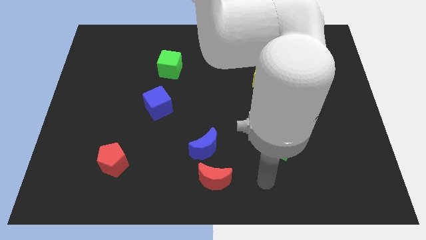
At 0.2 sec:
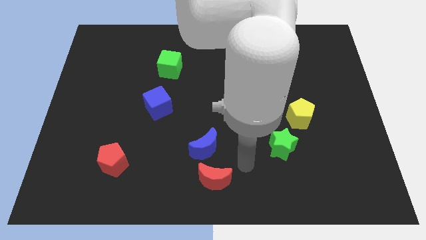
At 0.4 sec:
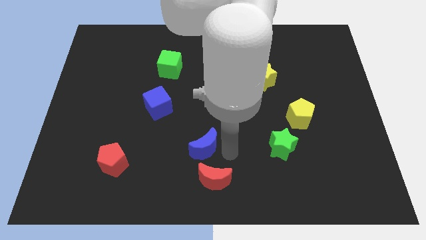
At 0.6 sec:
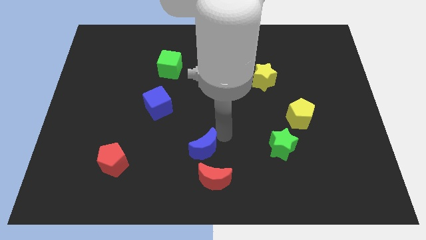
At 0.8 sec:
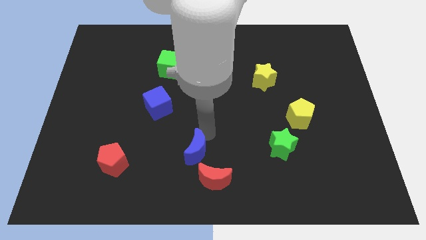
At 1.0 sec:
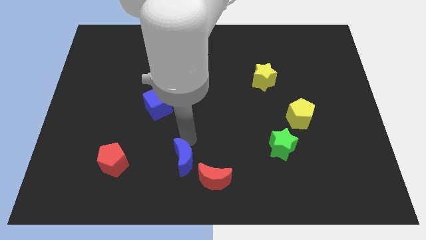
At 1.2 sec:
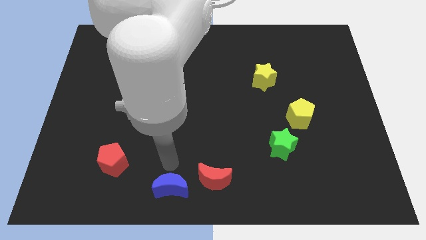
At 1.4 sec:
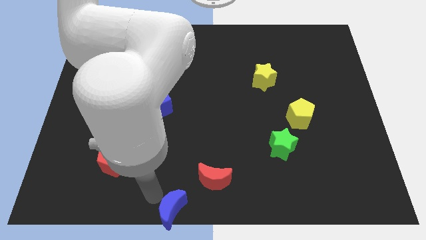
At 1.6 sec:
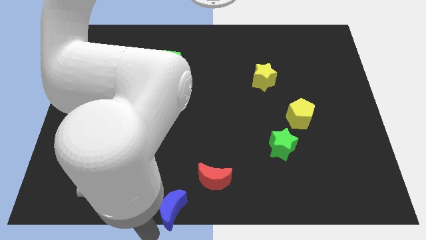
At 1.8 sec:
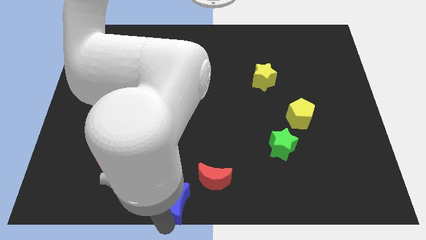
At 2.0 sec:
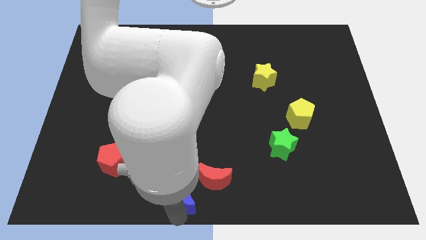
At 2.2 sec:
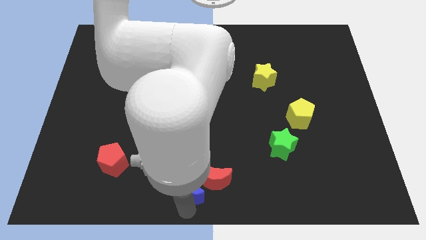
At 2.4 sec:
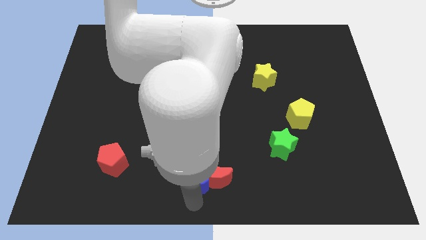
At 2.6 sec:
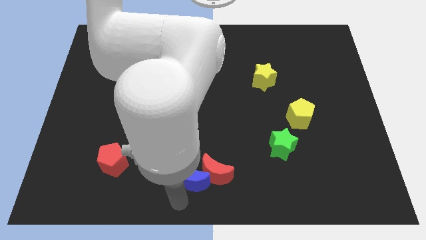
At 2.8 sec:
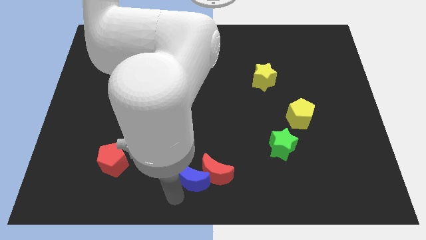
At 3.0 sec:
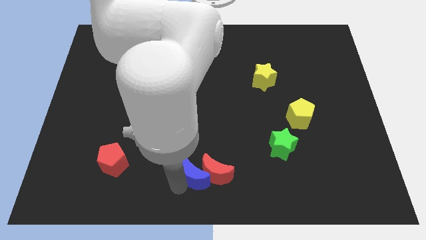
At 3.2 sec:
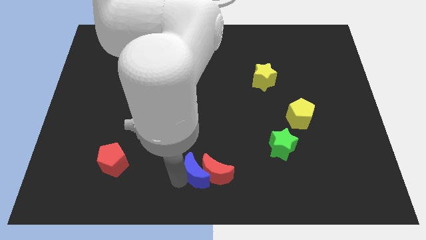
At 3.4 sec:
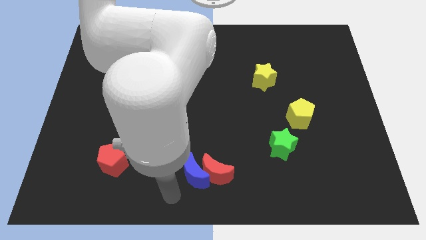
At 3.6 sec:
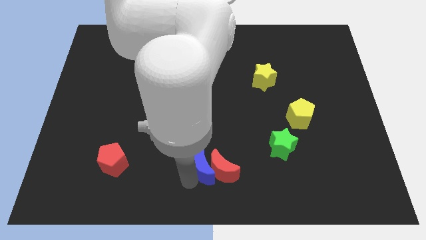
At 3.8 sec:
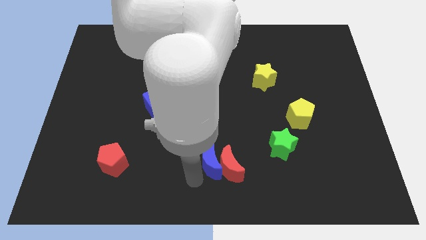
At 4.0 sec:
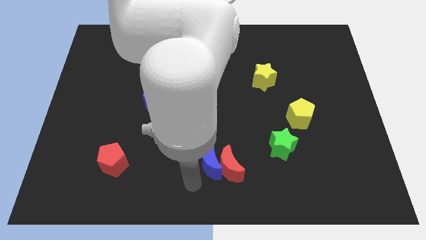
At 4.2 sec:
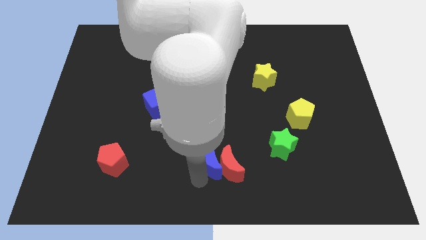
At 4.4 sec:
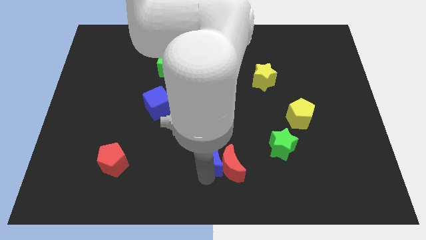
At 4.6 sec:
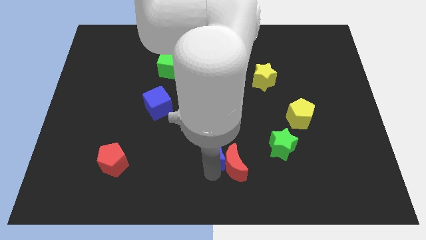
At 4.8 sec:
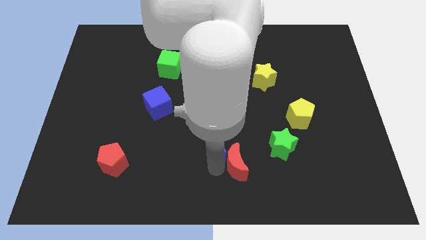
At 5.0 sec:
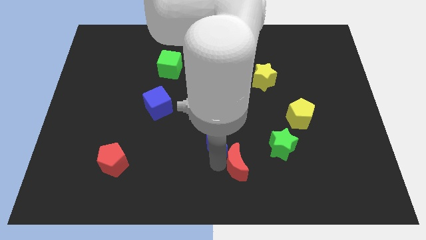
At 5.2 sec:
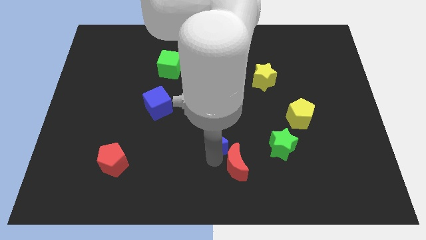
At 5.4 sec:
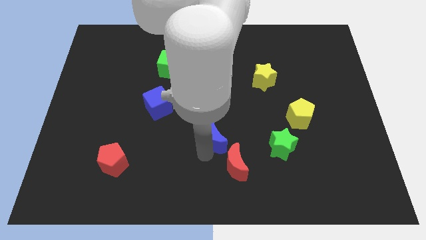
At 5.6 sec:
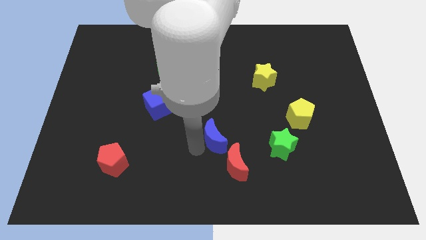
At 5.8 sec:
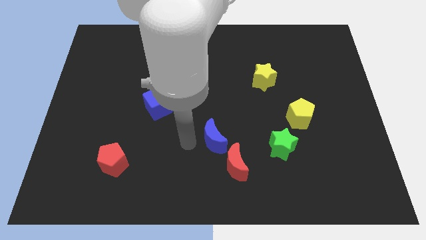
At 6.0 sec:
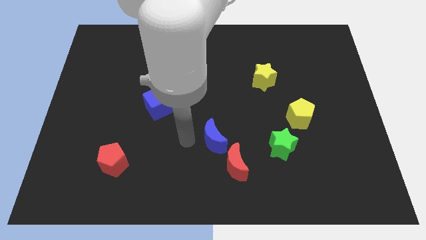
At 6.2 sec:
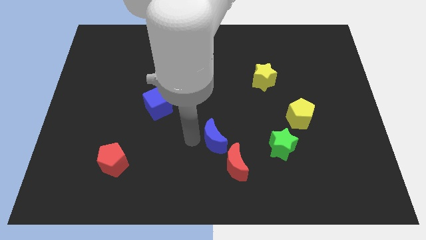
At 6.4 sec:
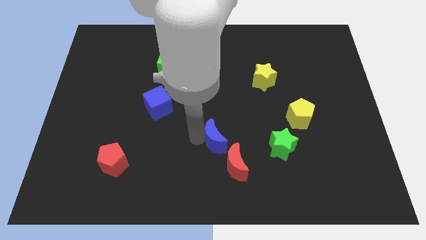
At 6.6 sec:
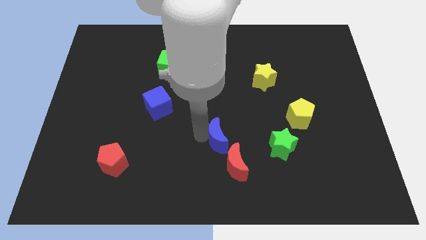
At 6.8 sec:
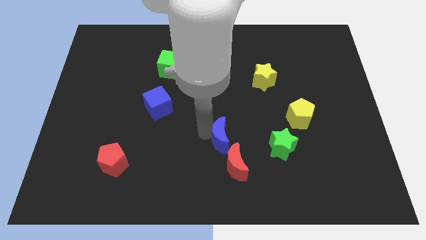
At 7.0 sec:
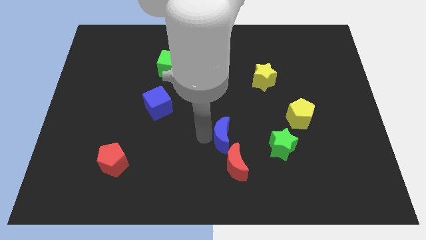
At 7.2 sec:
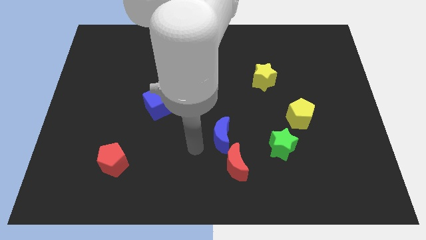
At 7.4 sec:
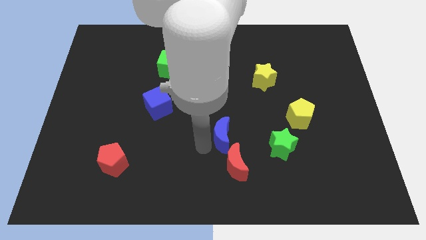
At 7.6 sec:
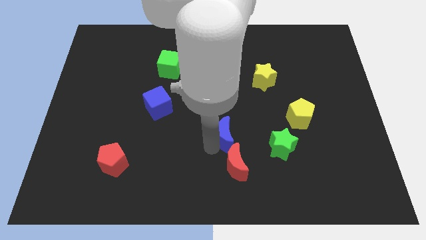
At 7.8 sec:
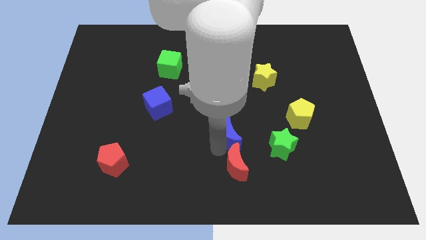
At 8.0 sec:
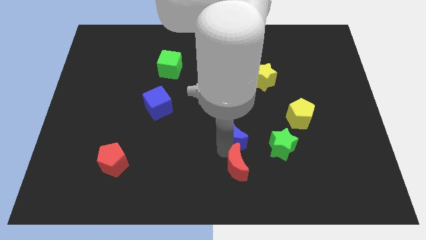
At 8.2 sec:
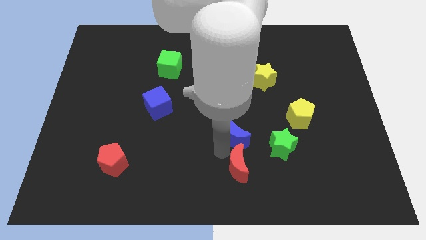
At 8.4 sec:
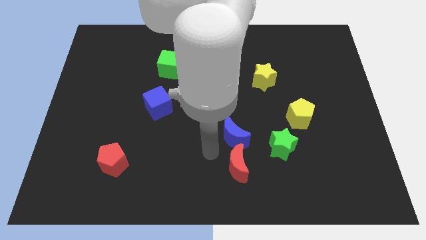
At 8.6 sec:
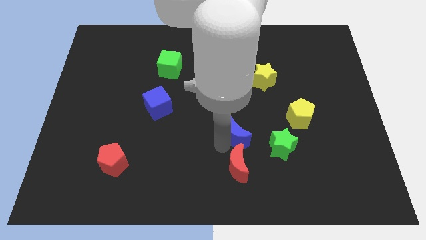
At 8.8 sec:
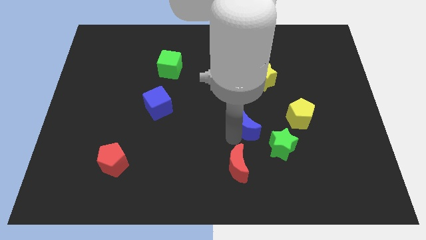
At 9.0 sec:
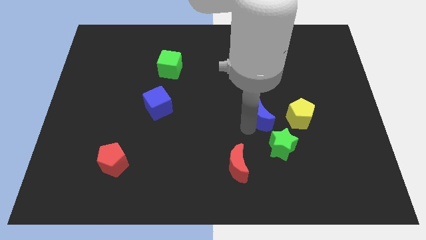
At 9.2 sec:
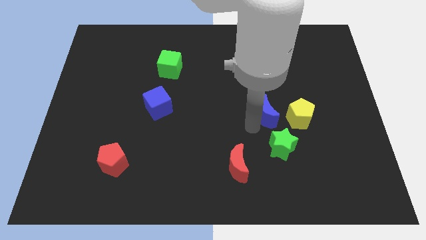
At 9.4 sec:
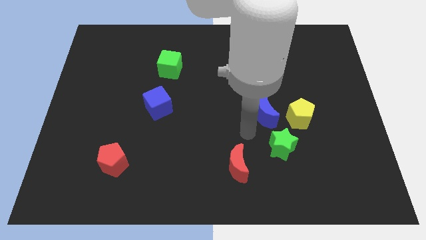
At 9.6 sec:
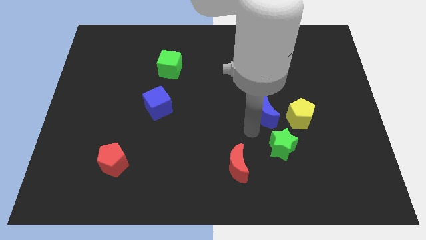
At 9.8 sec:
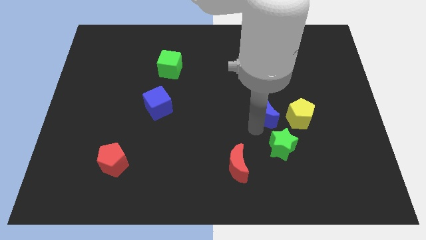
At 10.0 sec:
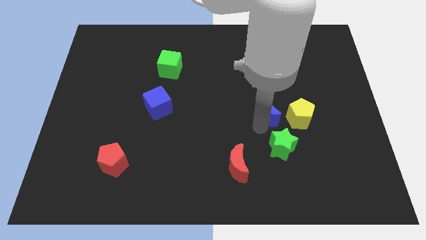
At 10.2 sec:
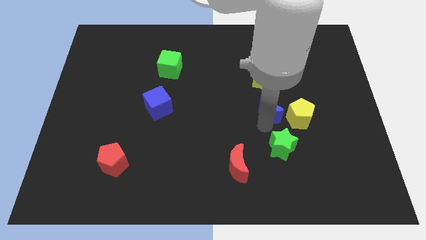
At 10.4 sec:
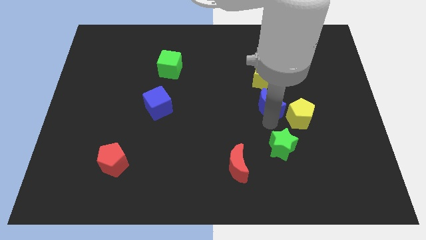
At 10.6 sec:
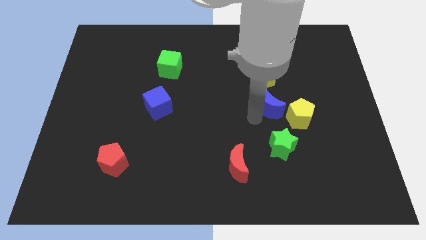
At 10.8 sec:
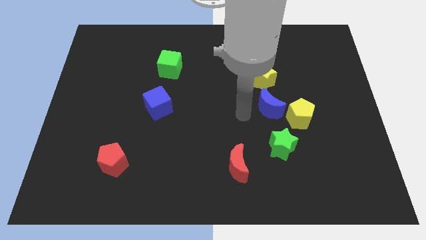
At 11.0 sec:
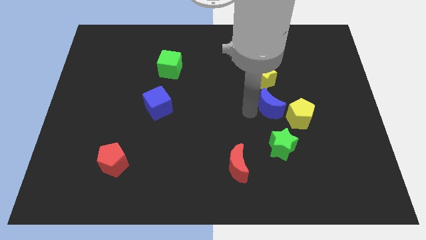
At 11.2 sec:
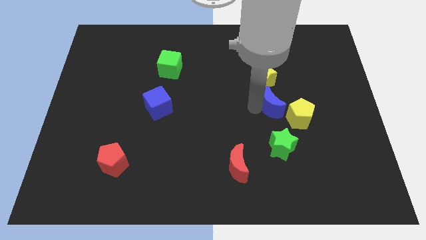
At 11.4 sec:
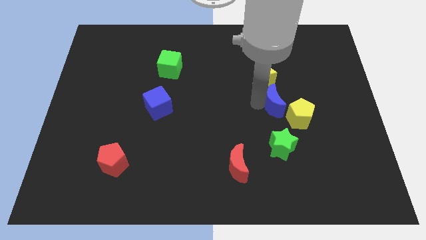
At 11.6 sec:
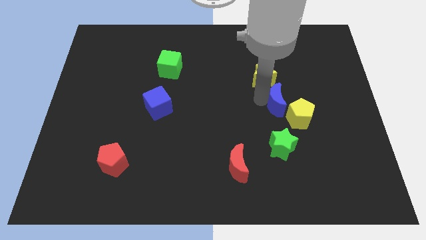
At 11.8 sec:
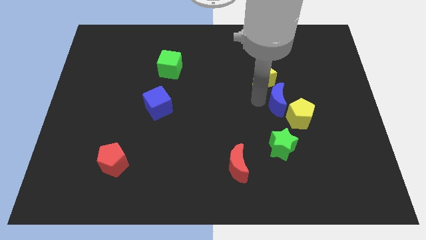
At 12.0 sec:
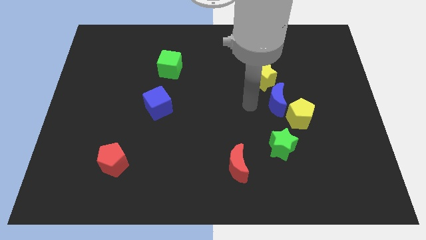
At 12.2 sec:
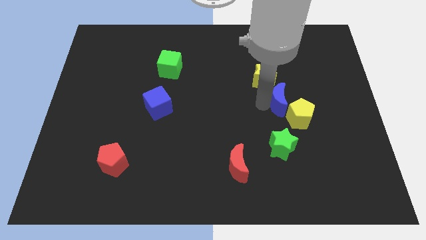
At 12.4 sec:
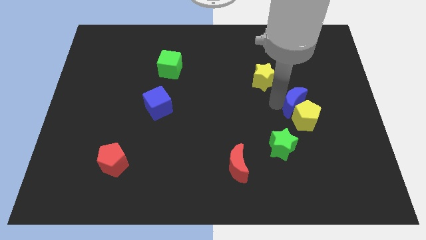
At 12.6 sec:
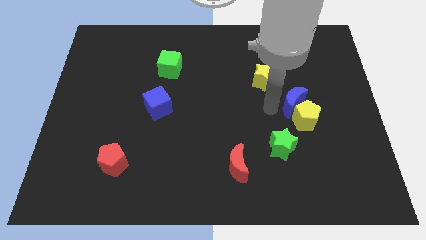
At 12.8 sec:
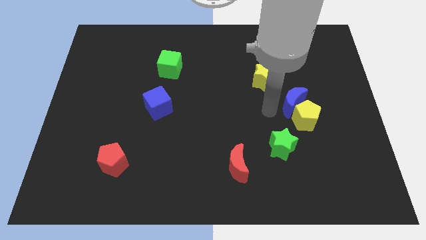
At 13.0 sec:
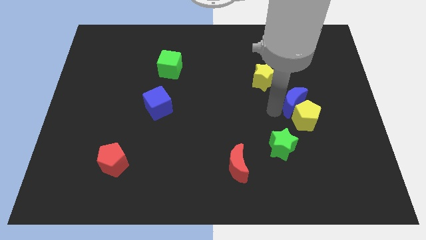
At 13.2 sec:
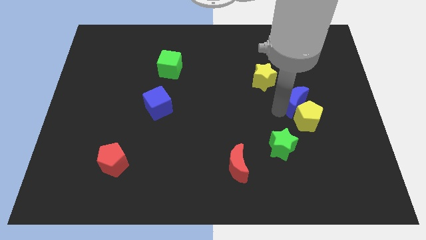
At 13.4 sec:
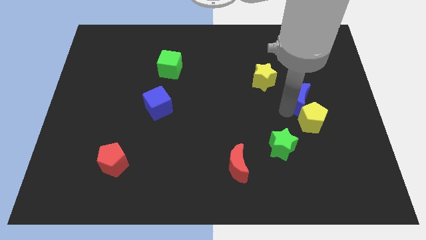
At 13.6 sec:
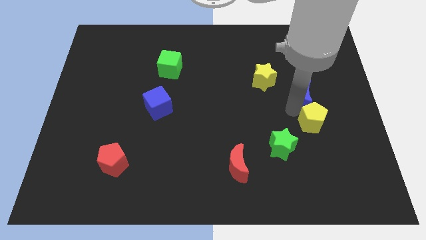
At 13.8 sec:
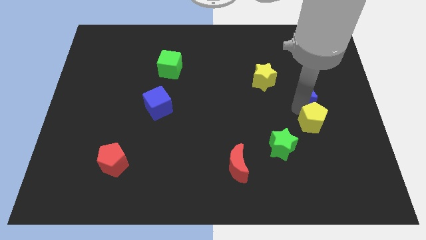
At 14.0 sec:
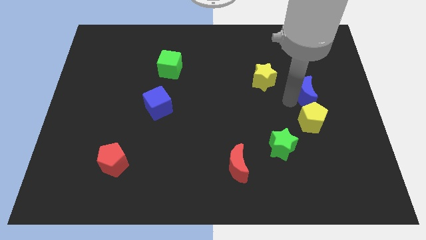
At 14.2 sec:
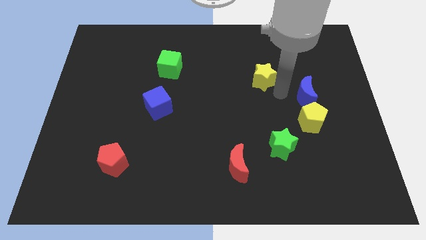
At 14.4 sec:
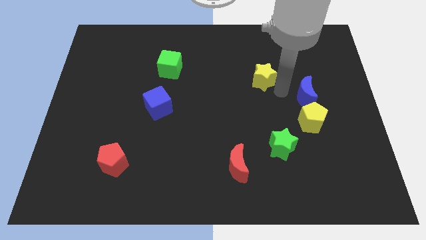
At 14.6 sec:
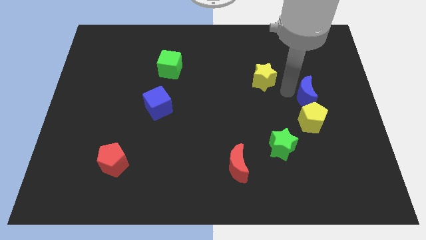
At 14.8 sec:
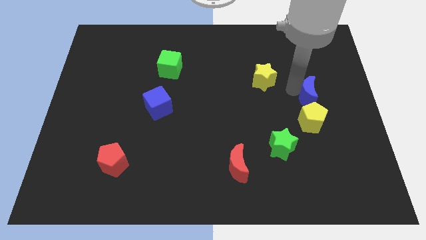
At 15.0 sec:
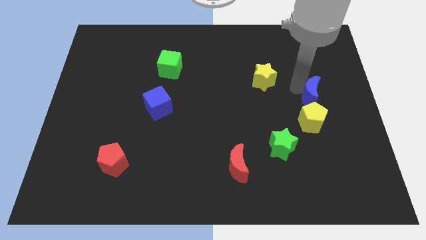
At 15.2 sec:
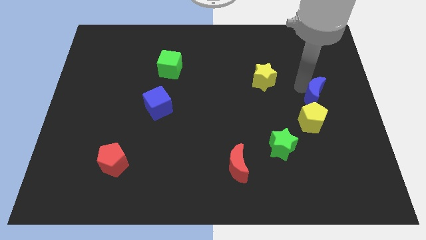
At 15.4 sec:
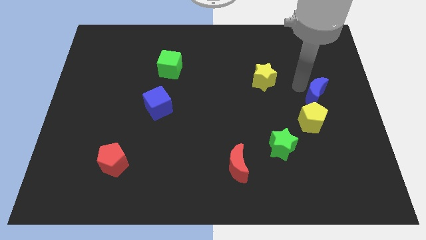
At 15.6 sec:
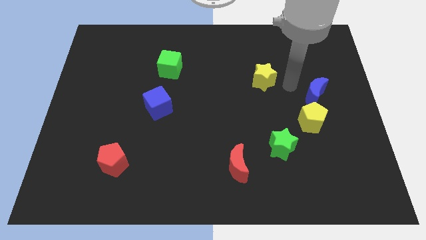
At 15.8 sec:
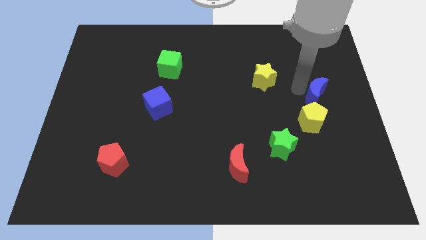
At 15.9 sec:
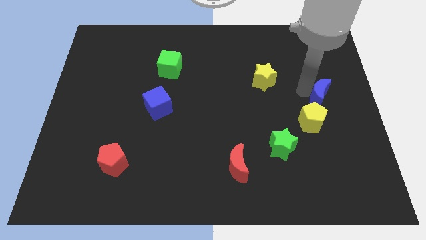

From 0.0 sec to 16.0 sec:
put the blue moon to the center right
